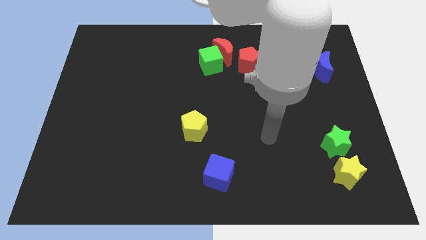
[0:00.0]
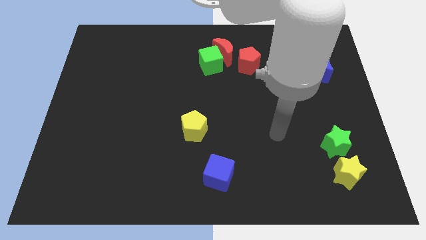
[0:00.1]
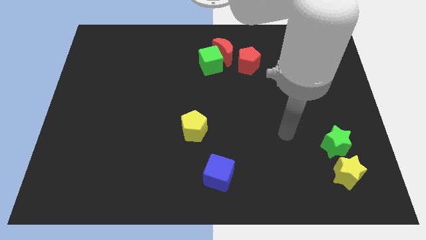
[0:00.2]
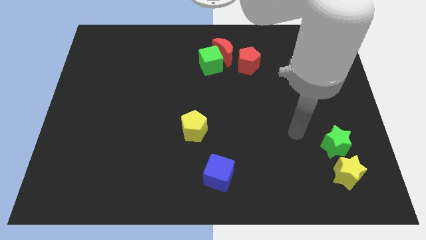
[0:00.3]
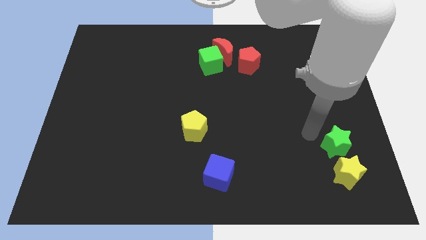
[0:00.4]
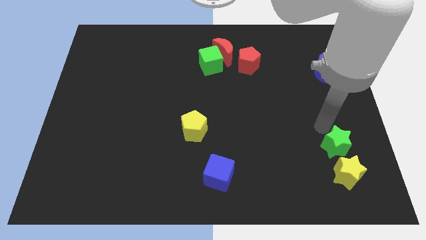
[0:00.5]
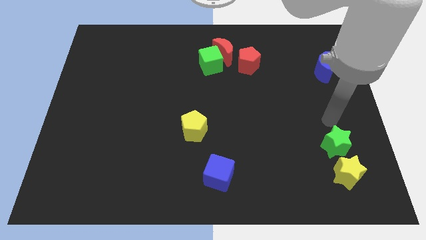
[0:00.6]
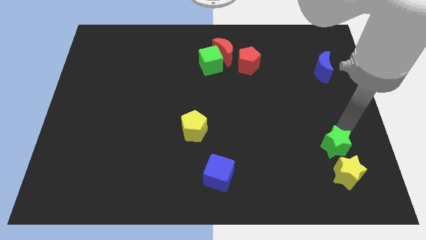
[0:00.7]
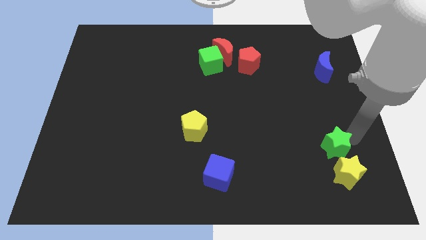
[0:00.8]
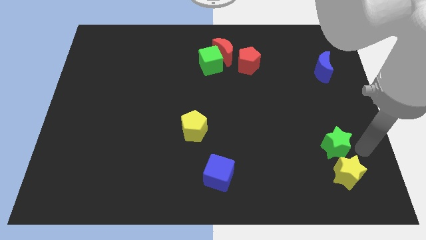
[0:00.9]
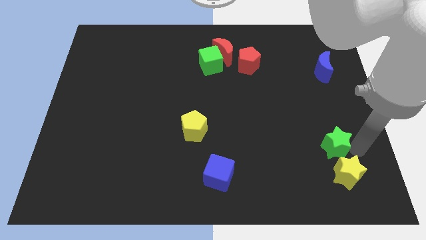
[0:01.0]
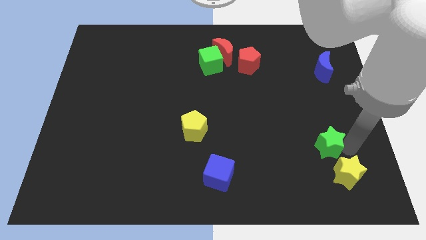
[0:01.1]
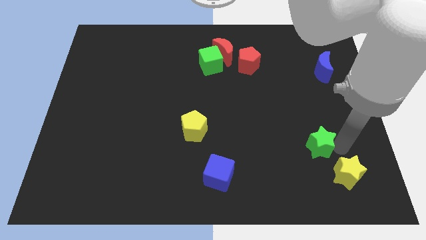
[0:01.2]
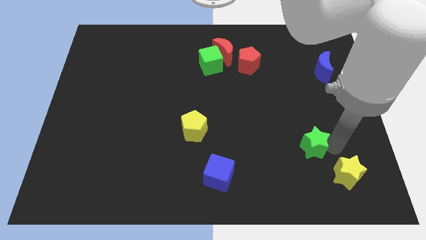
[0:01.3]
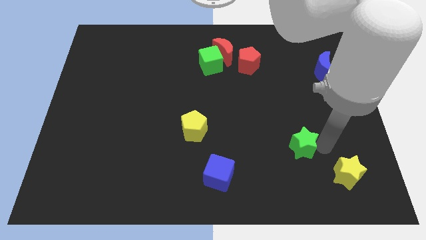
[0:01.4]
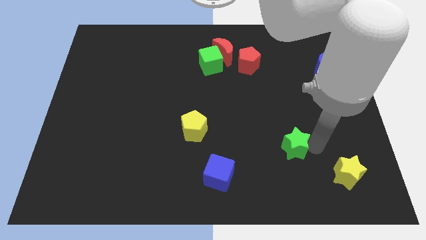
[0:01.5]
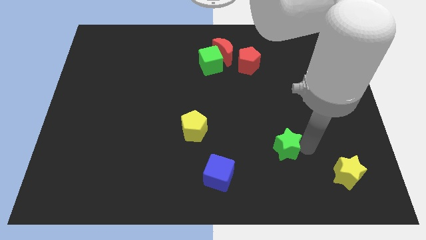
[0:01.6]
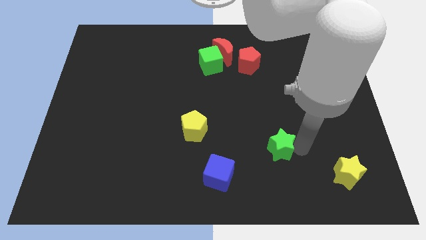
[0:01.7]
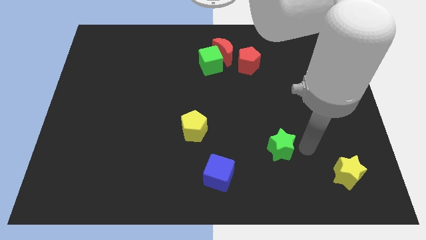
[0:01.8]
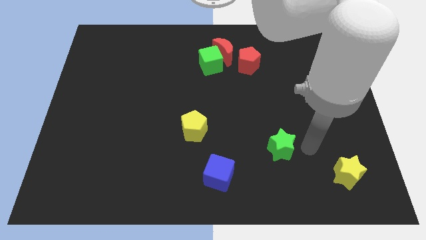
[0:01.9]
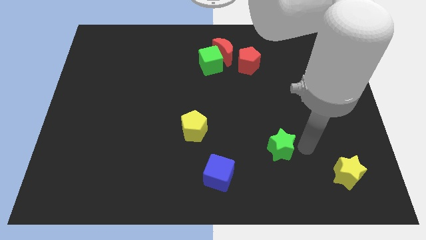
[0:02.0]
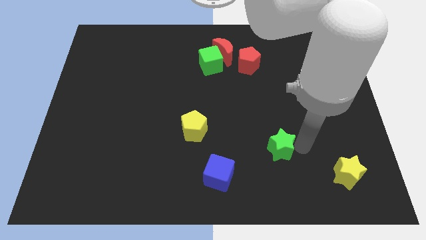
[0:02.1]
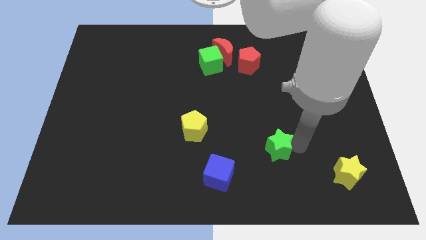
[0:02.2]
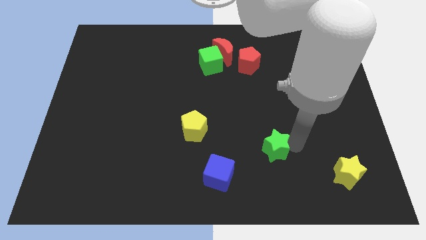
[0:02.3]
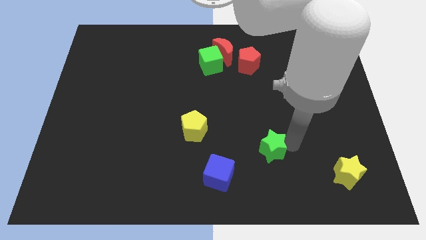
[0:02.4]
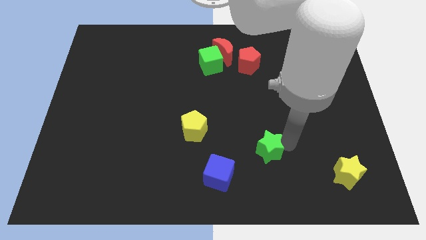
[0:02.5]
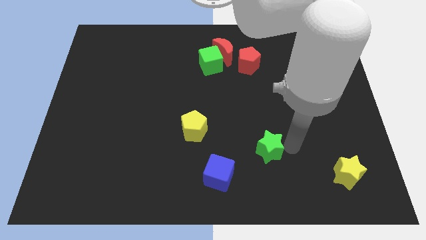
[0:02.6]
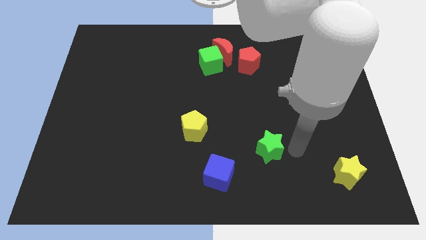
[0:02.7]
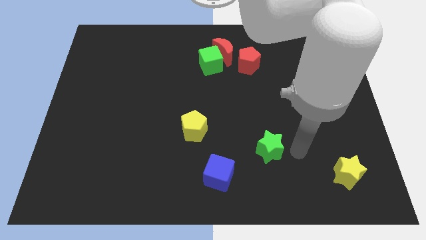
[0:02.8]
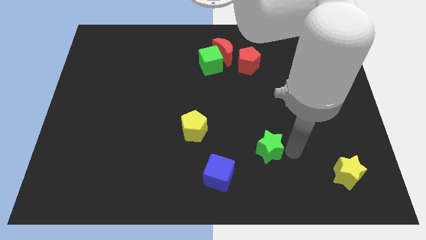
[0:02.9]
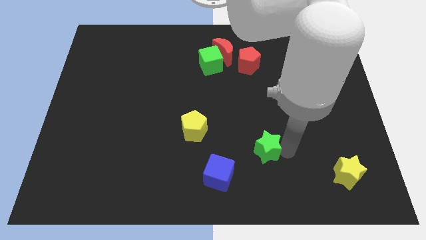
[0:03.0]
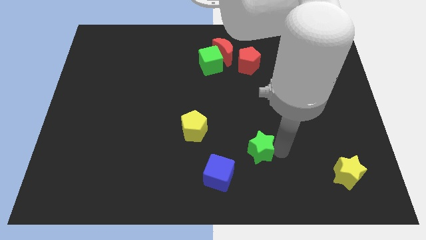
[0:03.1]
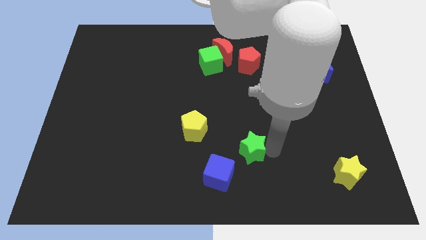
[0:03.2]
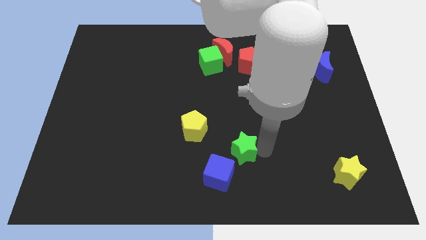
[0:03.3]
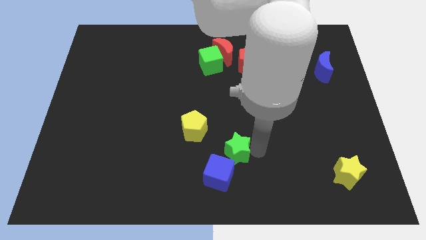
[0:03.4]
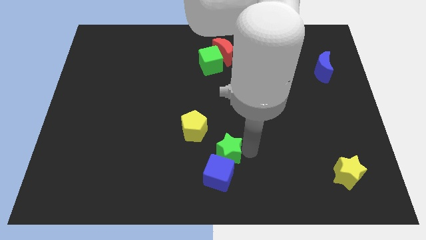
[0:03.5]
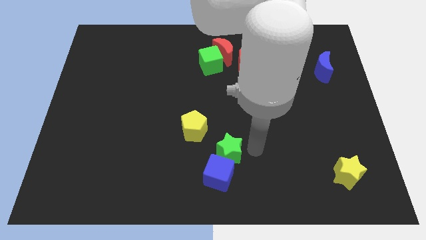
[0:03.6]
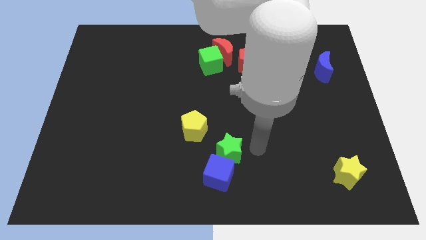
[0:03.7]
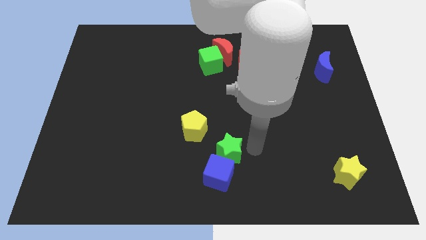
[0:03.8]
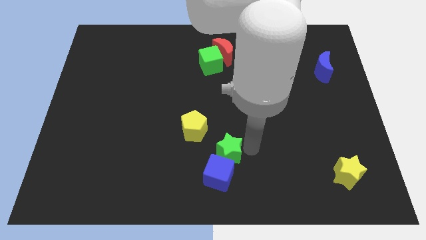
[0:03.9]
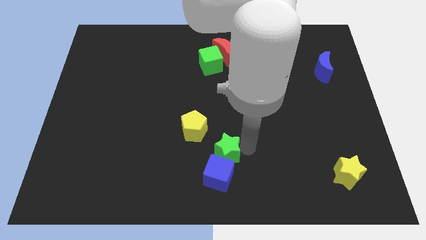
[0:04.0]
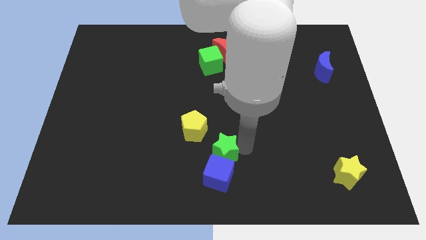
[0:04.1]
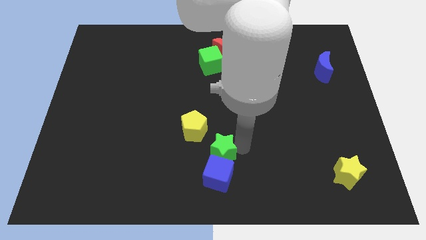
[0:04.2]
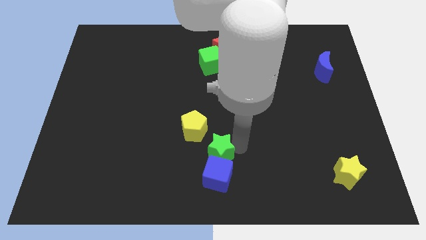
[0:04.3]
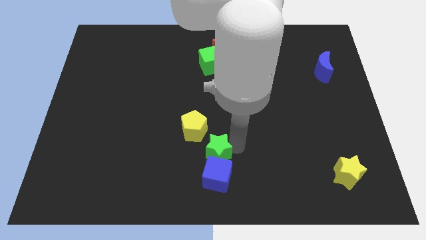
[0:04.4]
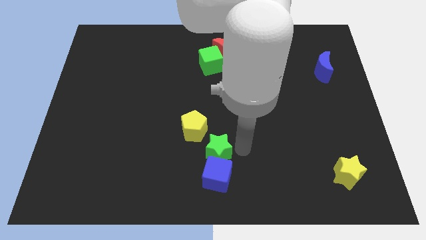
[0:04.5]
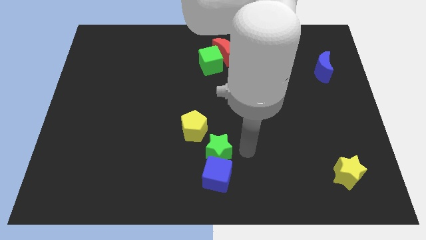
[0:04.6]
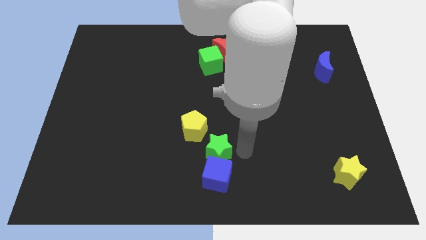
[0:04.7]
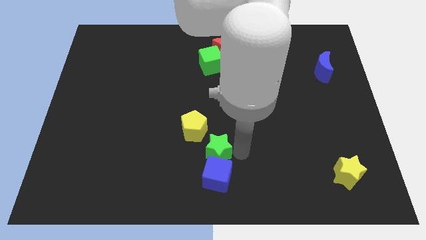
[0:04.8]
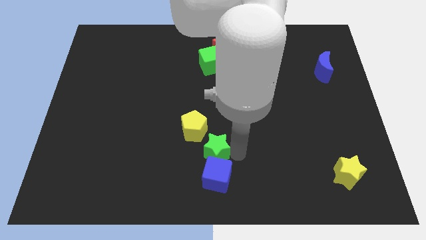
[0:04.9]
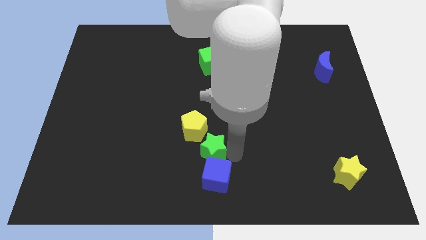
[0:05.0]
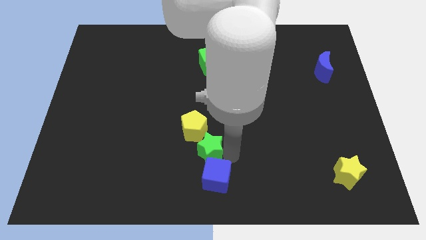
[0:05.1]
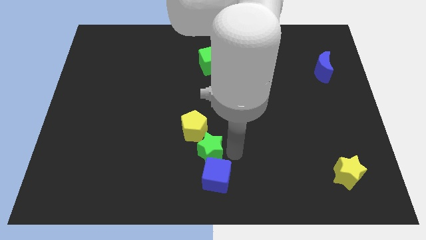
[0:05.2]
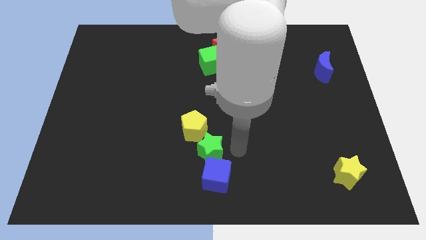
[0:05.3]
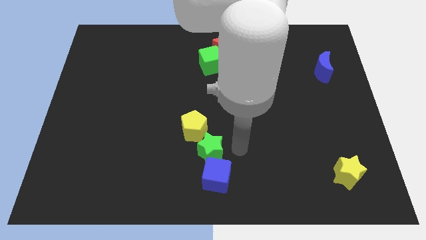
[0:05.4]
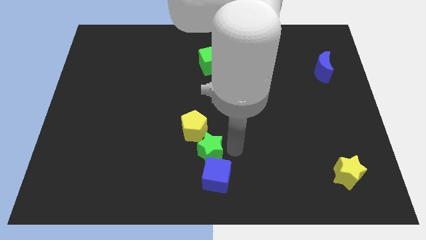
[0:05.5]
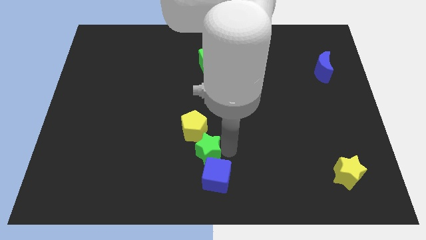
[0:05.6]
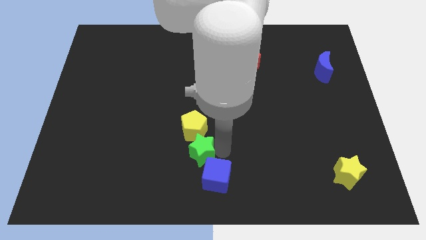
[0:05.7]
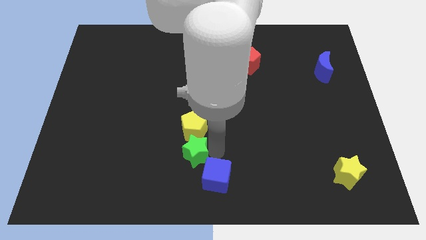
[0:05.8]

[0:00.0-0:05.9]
put the green star to the bottom left side of the yellow pentagon

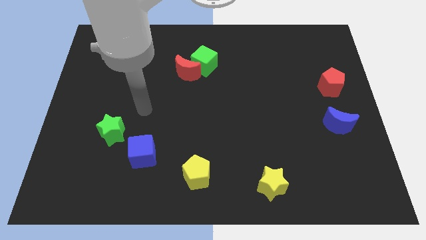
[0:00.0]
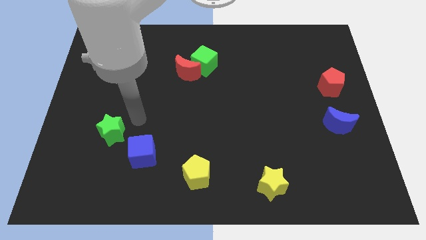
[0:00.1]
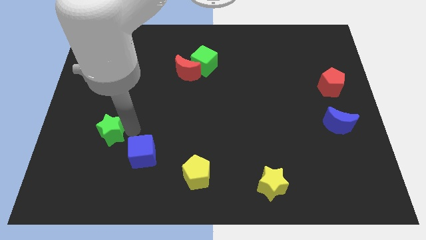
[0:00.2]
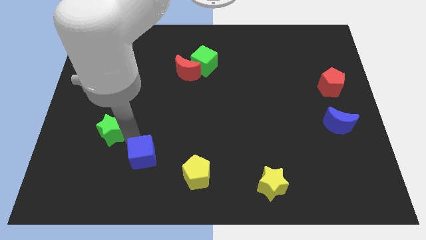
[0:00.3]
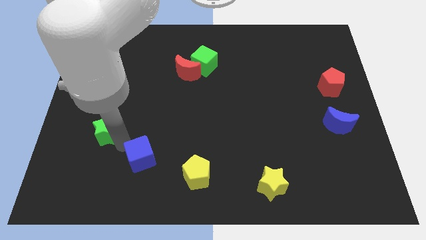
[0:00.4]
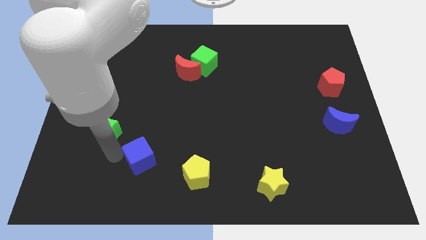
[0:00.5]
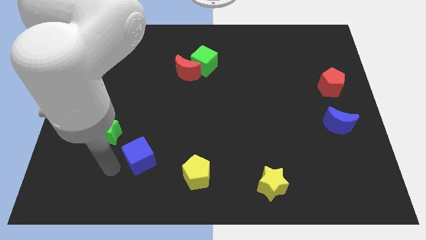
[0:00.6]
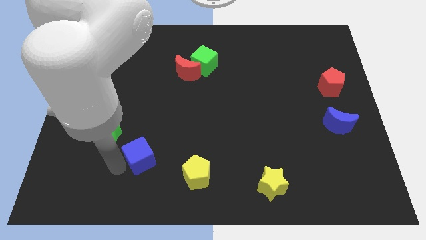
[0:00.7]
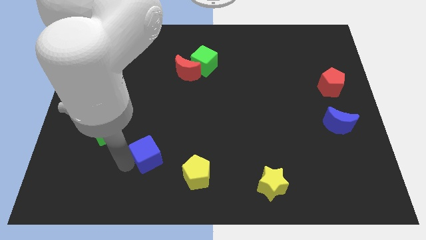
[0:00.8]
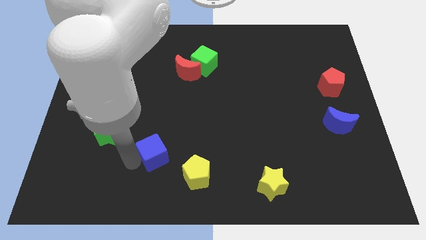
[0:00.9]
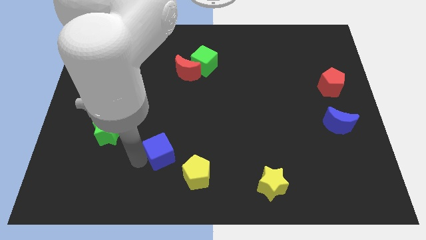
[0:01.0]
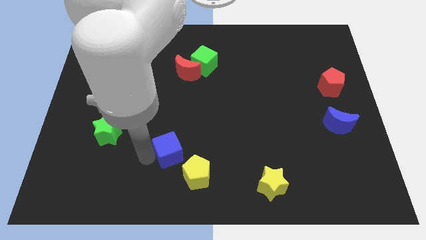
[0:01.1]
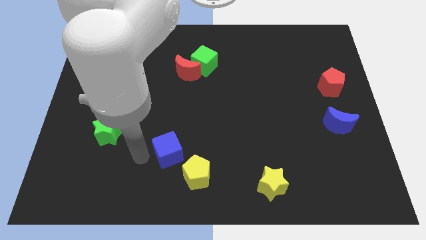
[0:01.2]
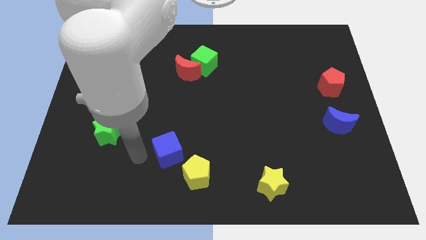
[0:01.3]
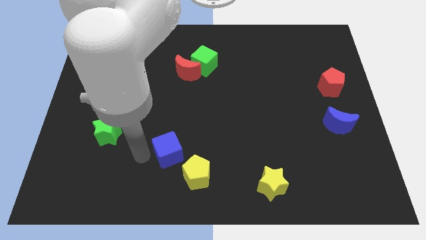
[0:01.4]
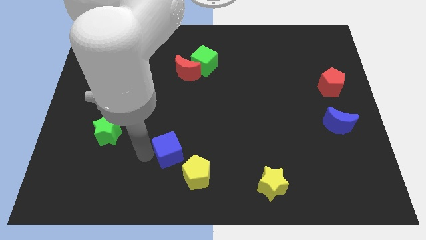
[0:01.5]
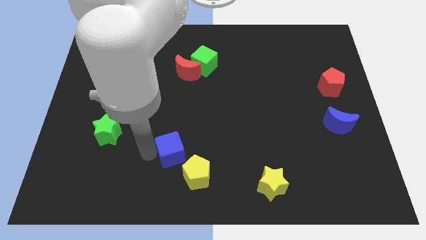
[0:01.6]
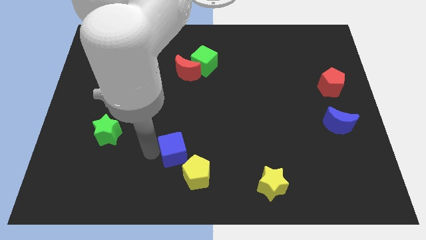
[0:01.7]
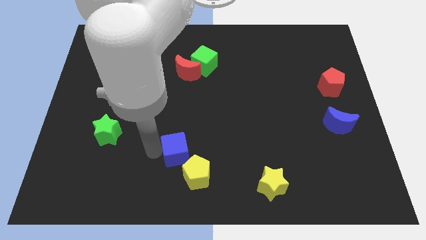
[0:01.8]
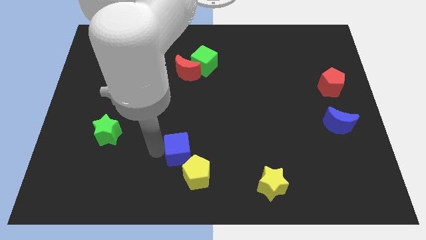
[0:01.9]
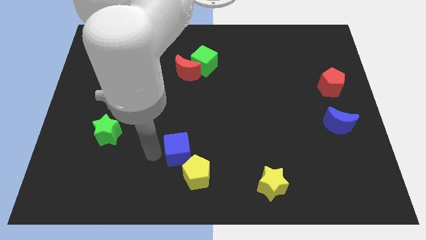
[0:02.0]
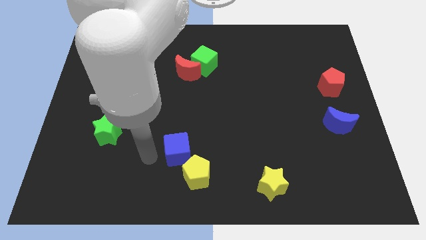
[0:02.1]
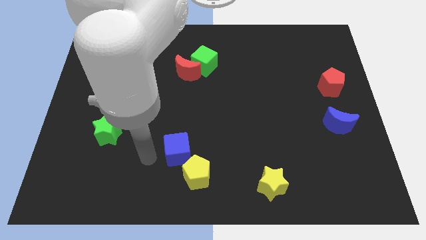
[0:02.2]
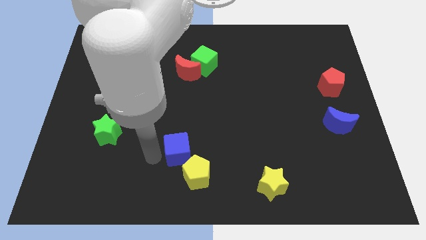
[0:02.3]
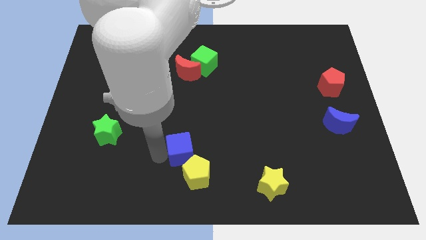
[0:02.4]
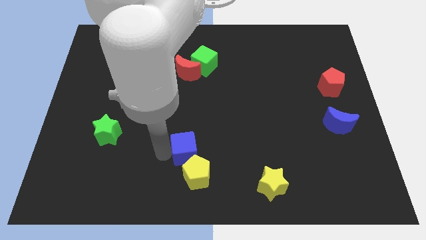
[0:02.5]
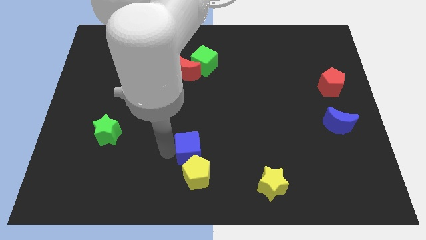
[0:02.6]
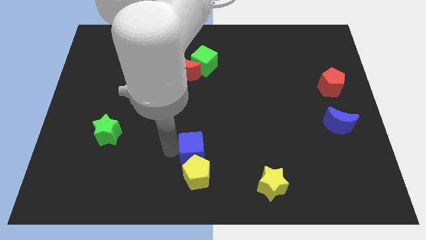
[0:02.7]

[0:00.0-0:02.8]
push the blue cube to the top right side of the yellow pentagon
